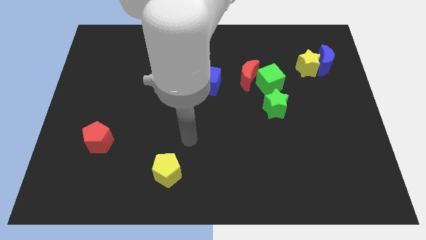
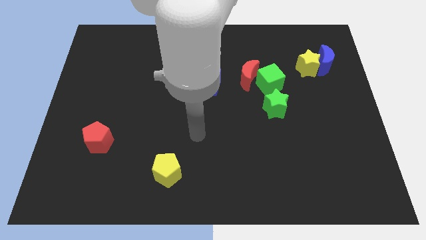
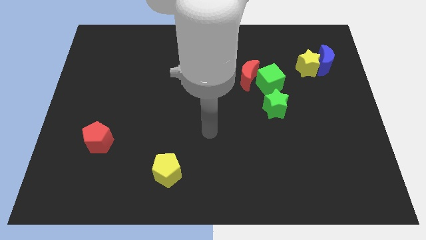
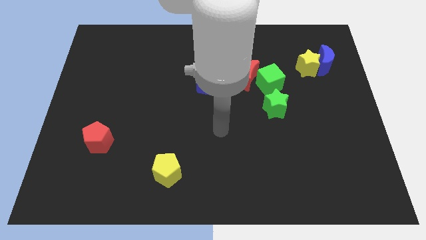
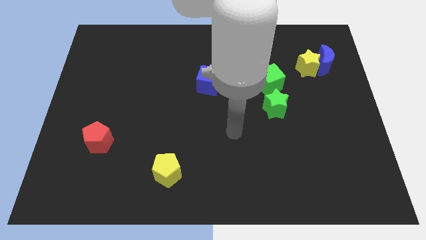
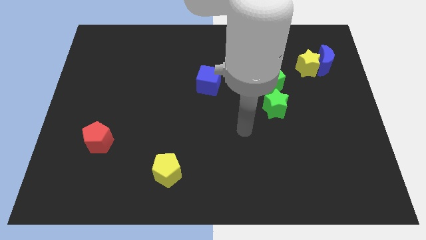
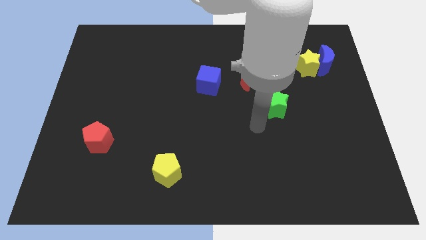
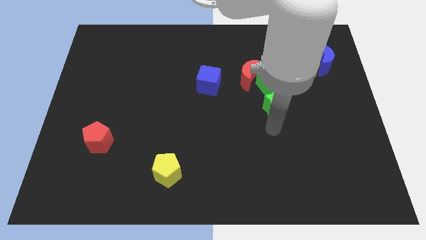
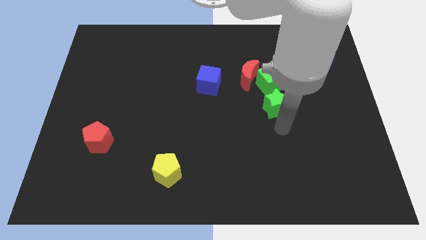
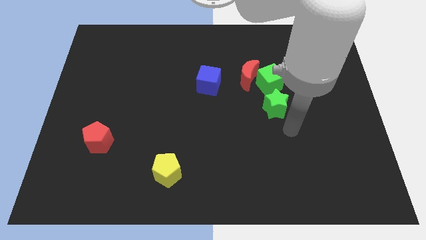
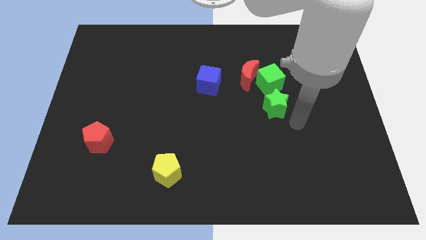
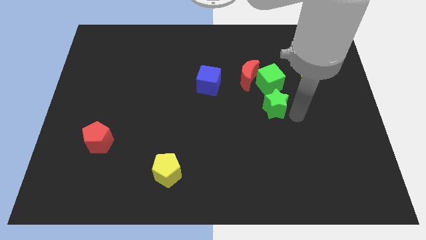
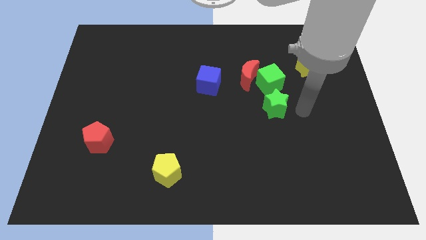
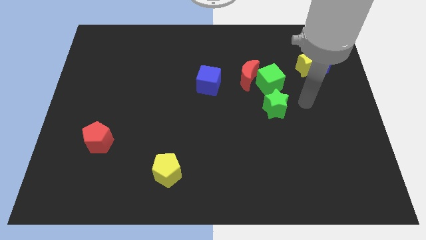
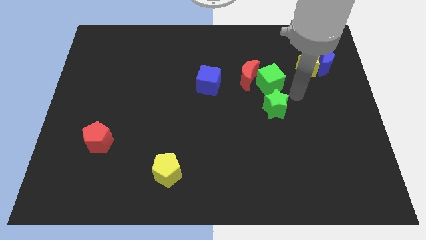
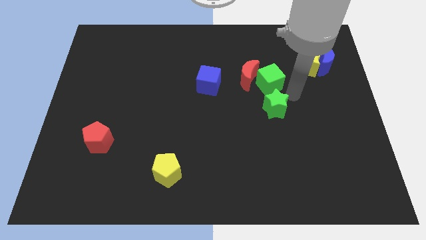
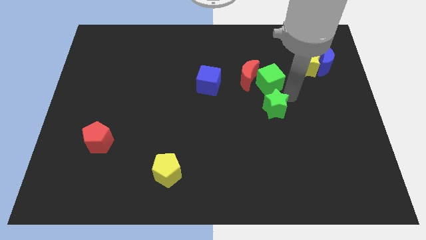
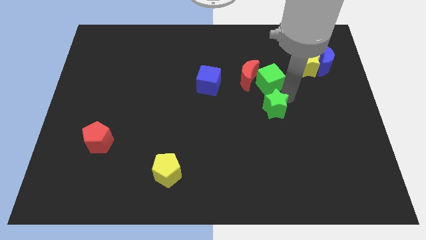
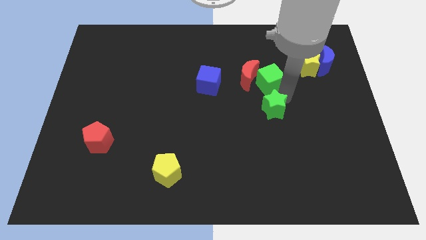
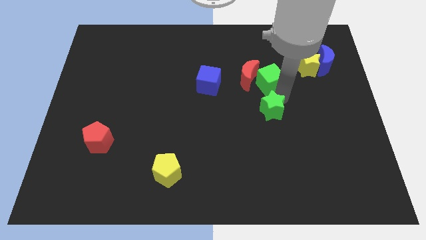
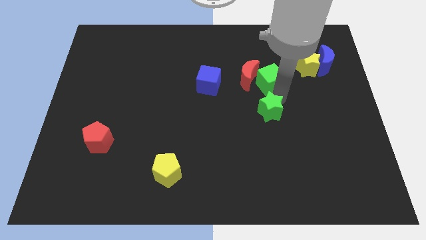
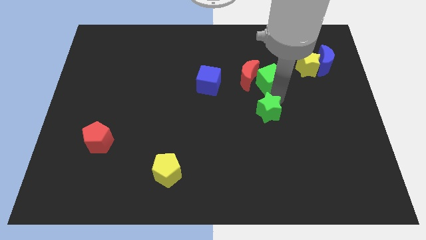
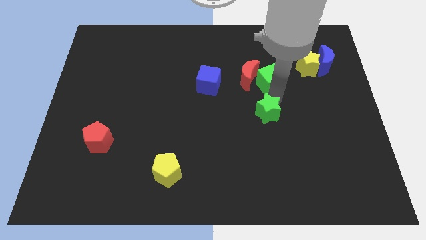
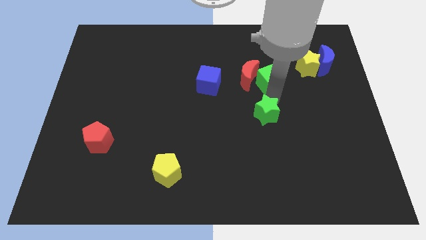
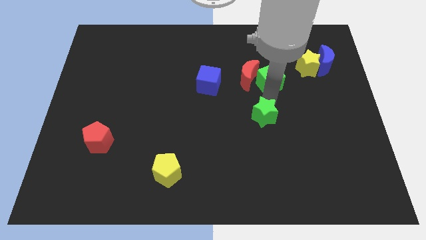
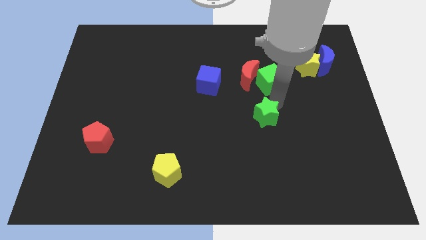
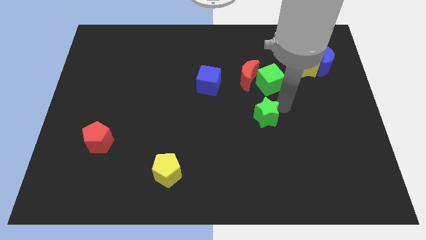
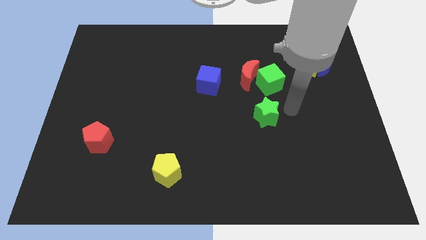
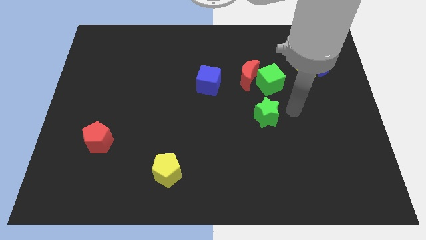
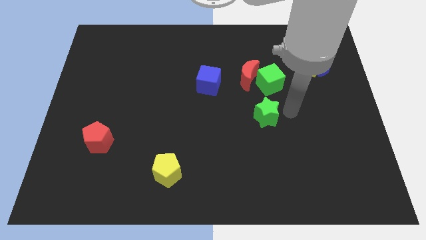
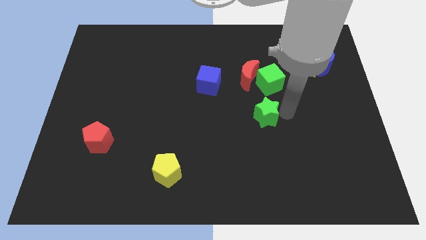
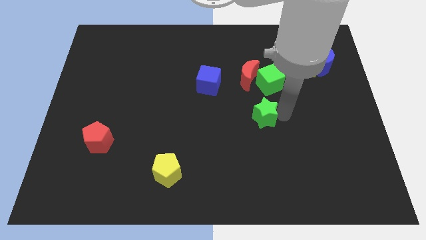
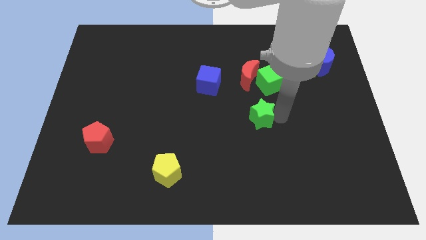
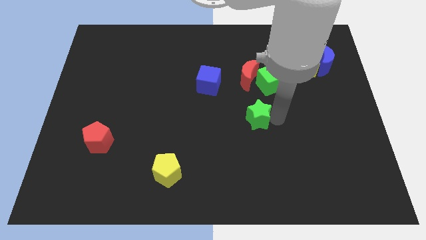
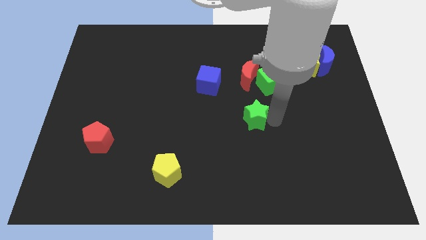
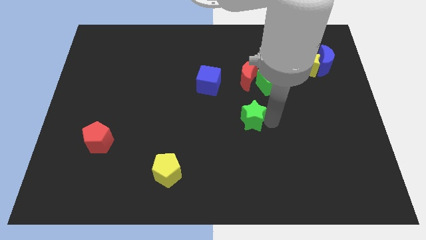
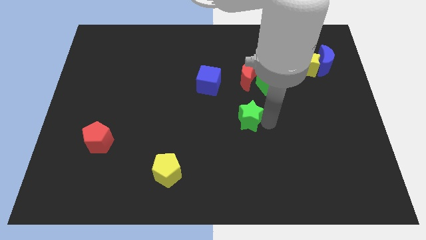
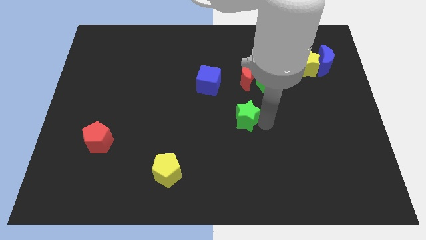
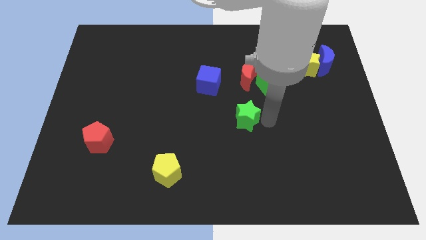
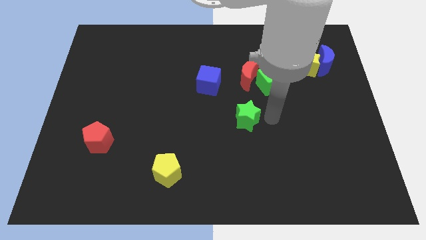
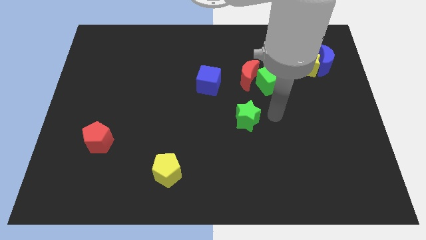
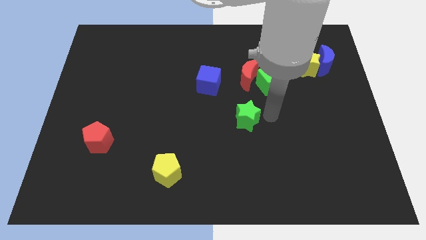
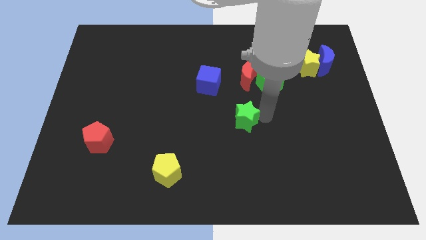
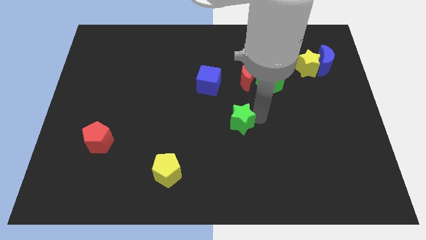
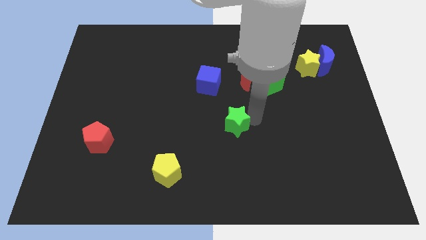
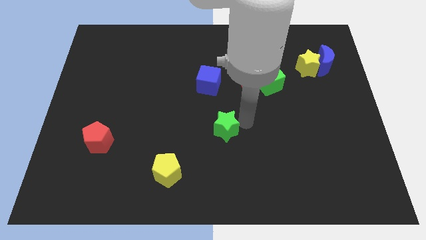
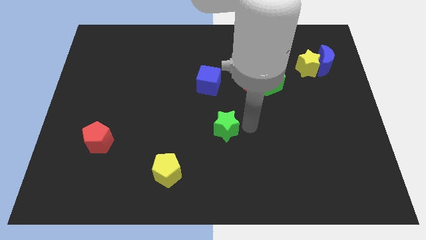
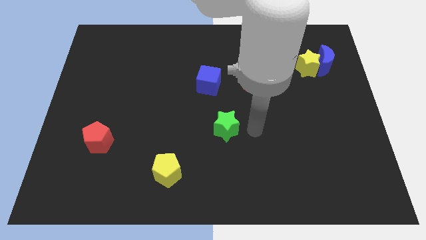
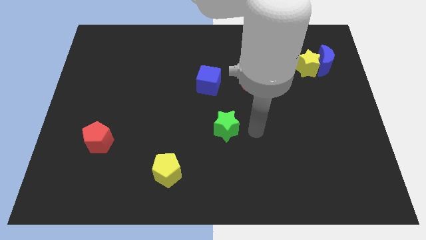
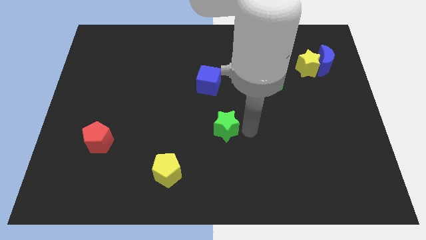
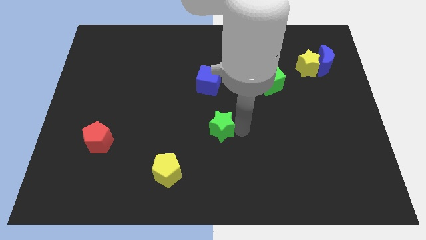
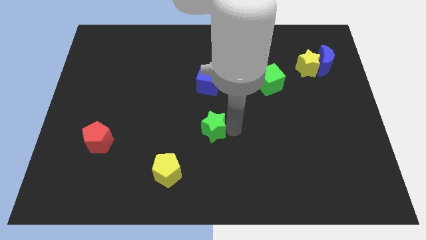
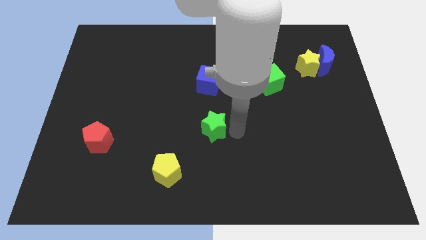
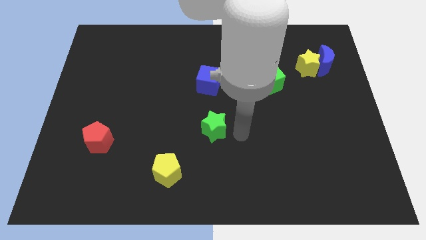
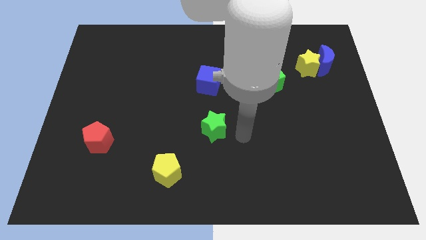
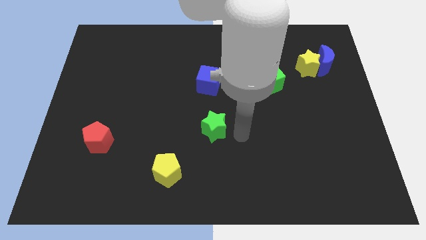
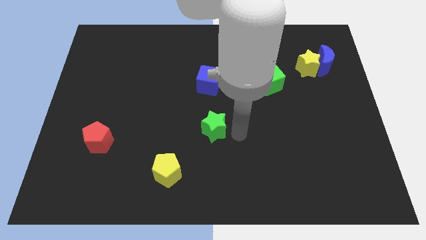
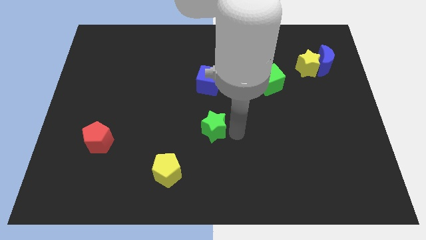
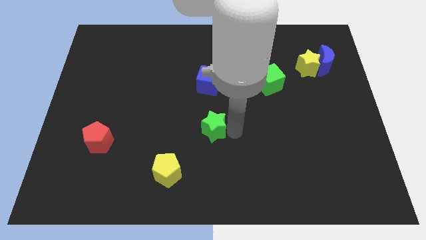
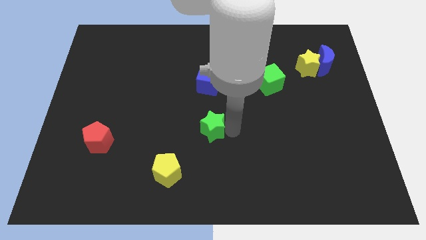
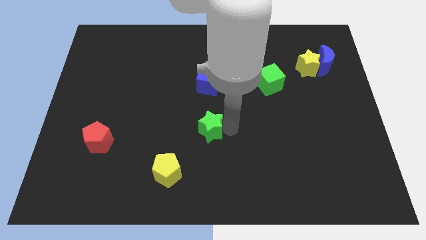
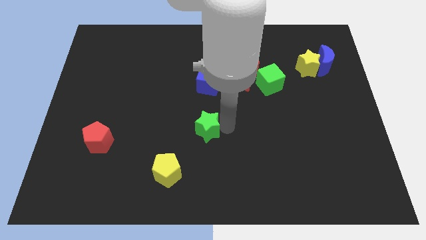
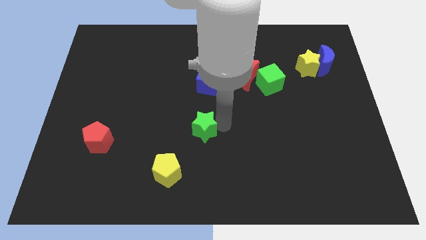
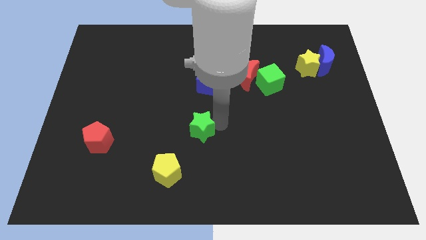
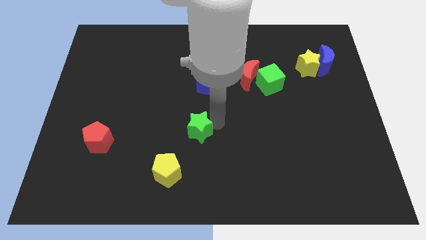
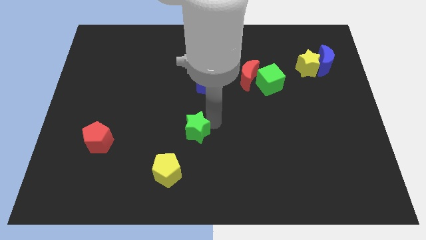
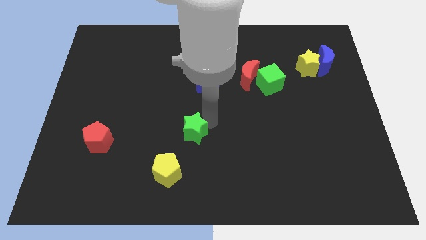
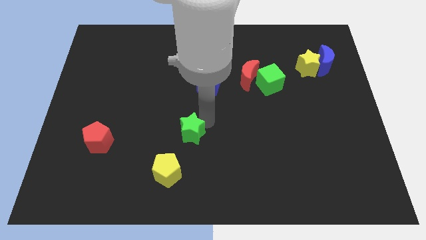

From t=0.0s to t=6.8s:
slide the green star to the top of the yellow pentagon

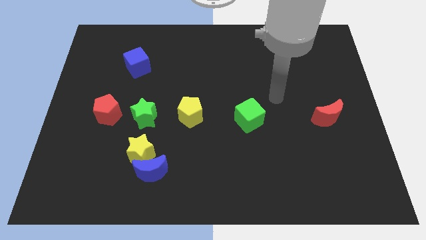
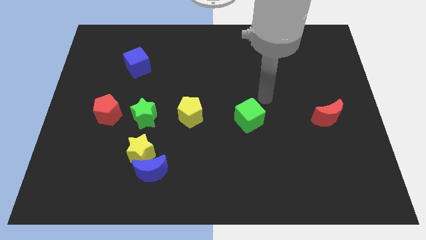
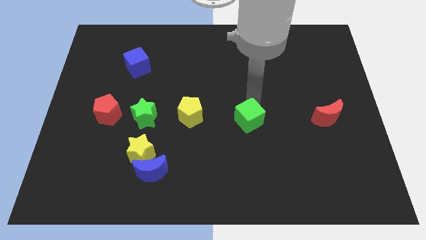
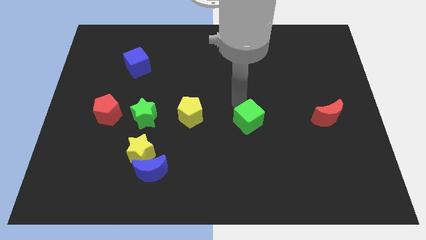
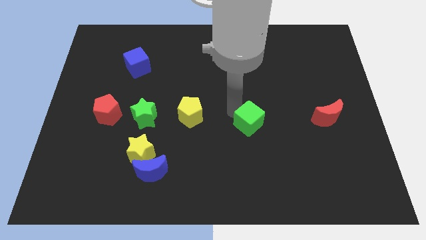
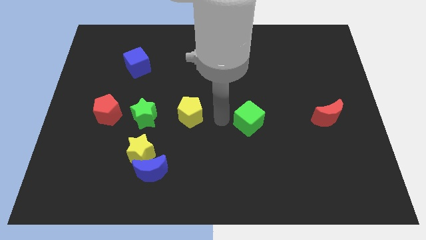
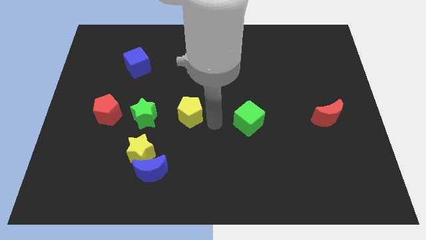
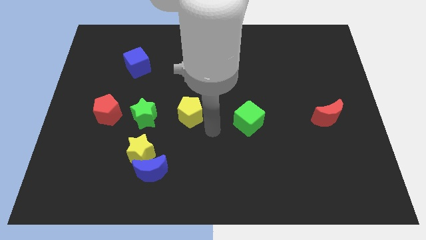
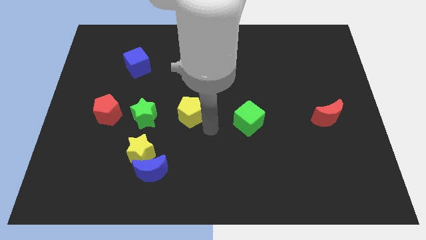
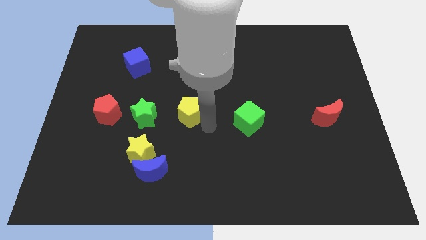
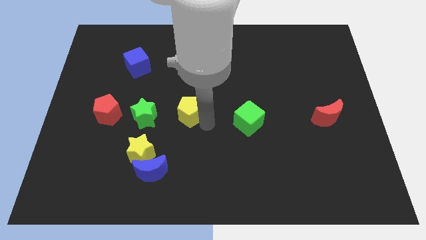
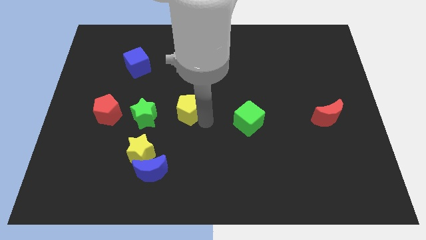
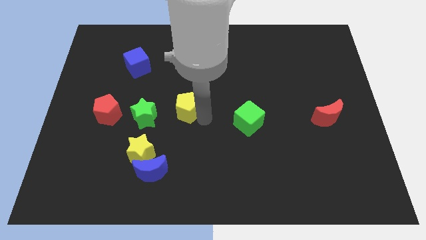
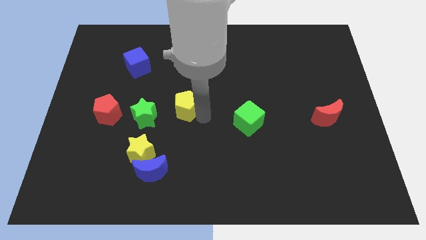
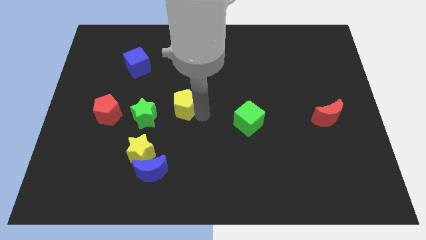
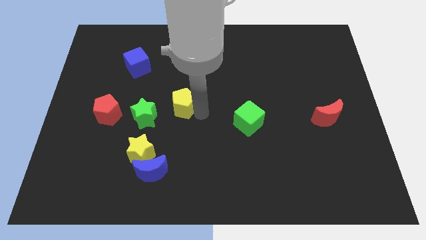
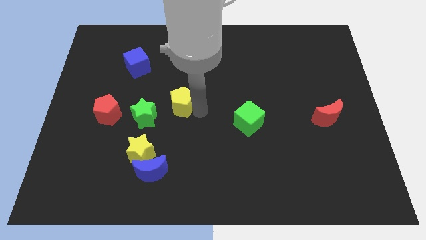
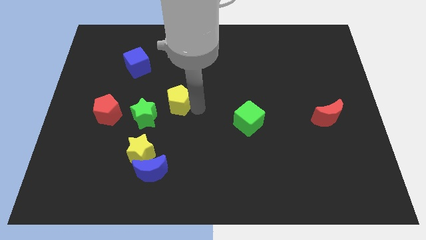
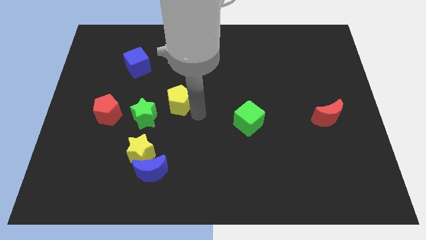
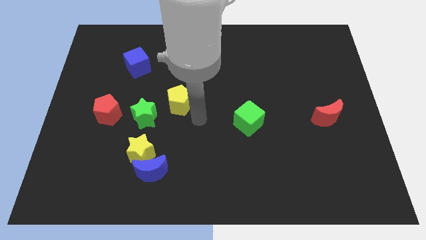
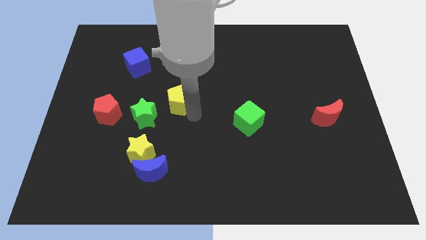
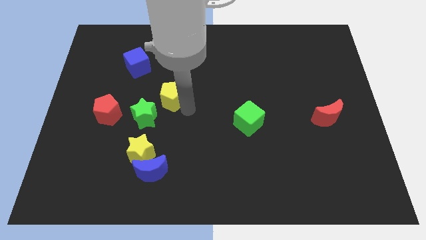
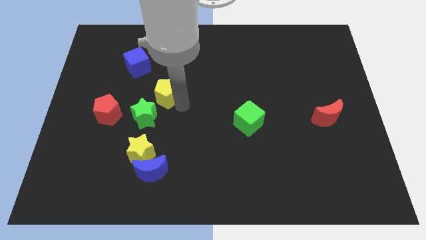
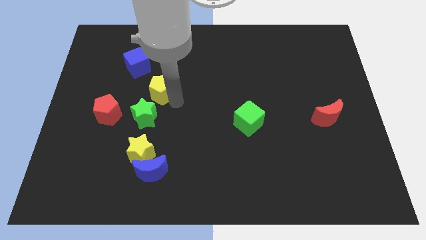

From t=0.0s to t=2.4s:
move the yellow pentagon to the bottom right of the blue cube
